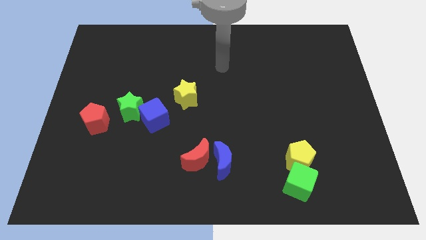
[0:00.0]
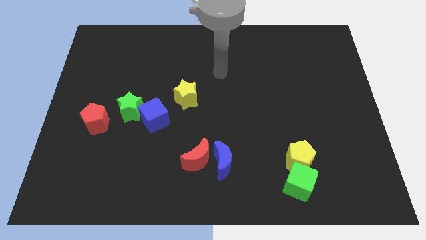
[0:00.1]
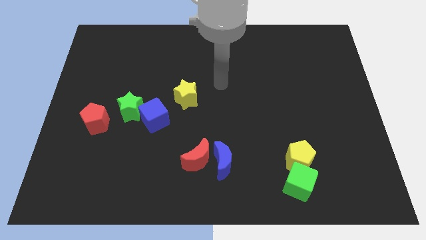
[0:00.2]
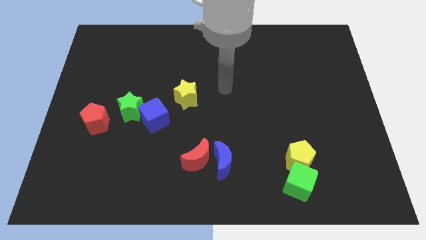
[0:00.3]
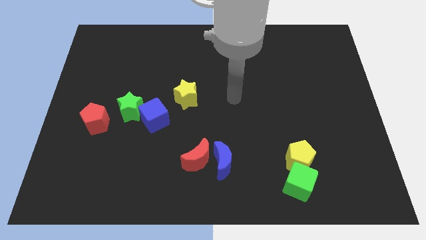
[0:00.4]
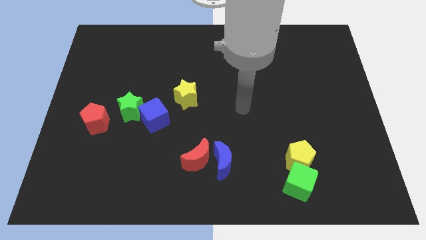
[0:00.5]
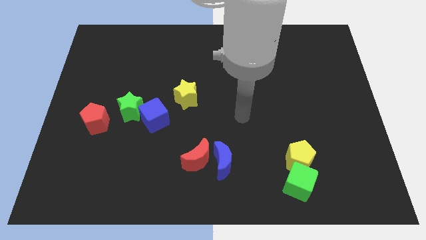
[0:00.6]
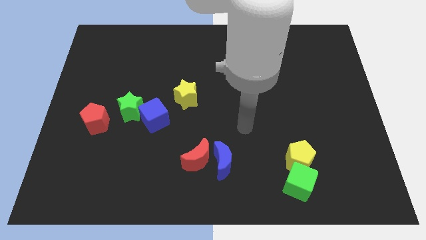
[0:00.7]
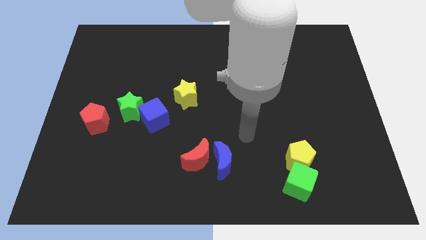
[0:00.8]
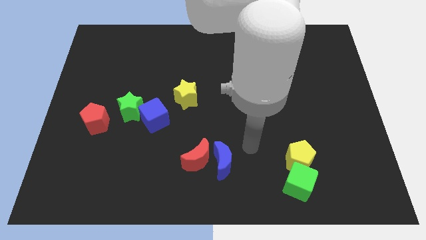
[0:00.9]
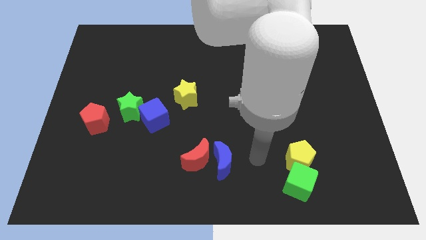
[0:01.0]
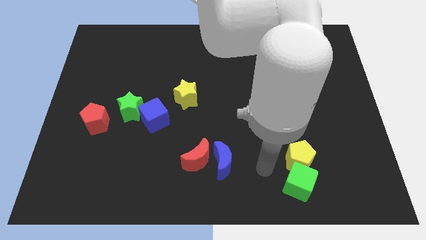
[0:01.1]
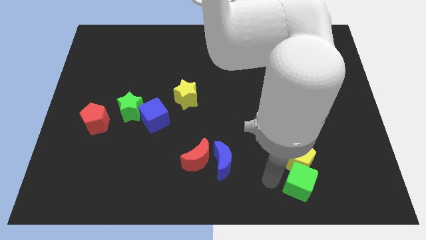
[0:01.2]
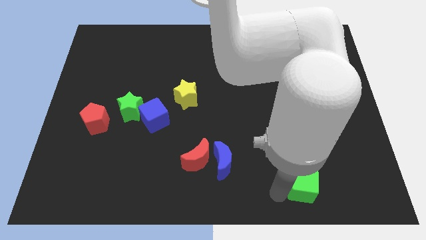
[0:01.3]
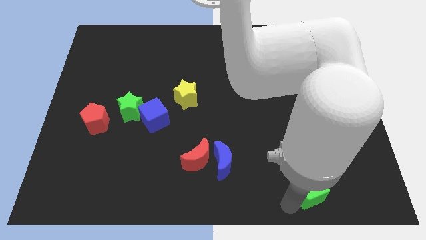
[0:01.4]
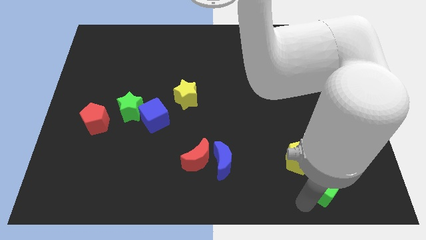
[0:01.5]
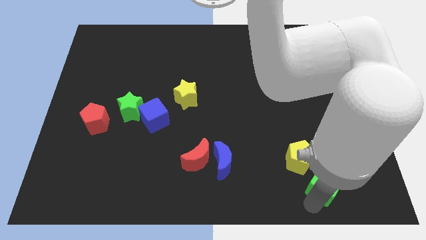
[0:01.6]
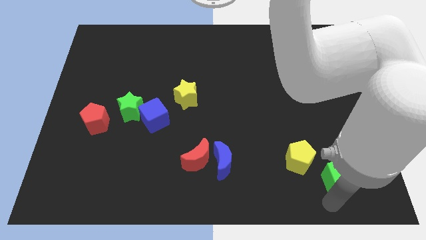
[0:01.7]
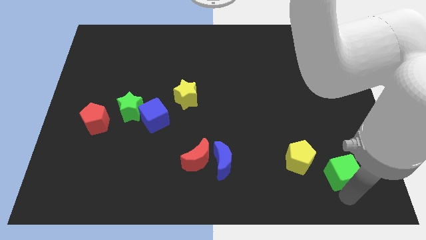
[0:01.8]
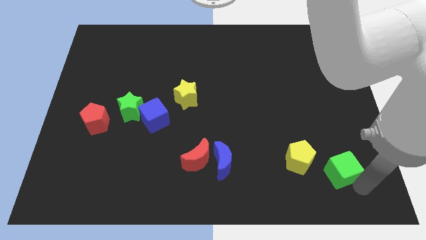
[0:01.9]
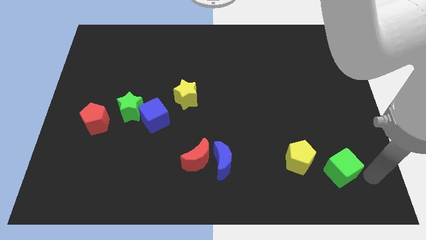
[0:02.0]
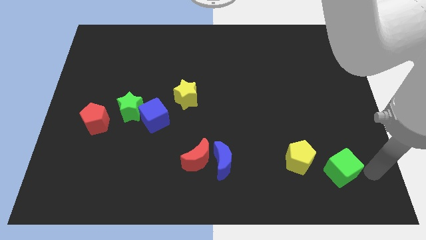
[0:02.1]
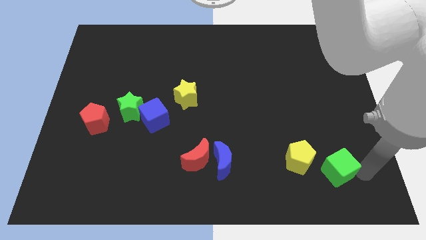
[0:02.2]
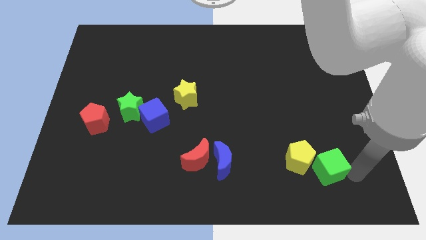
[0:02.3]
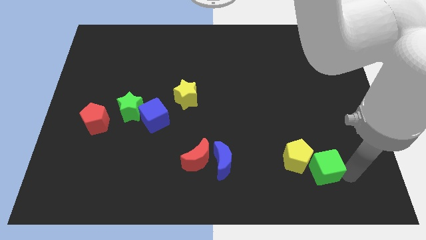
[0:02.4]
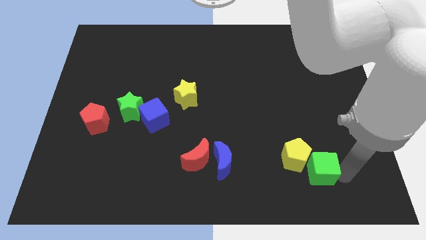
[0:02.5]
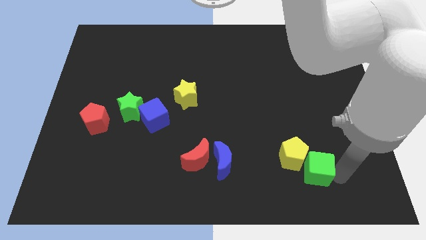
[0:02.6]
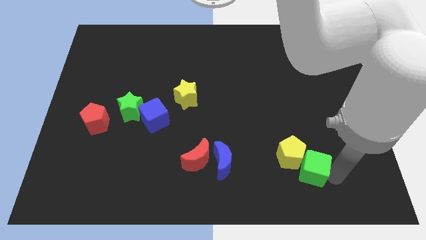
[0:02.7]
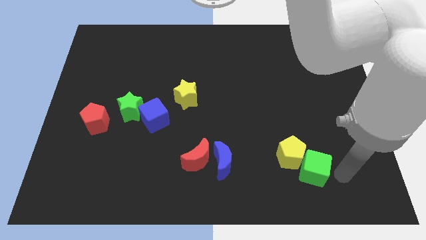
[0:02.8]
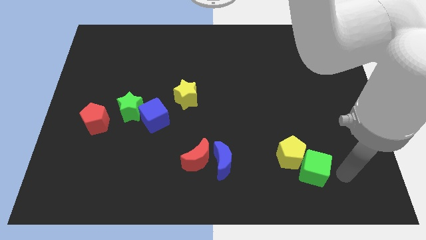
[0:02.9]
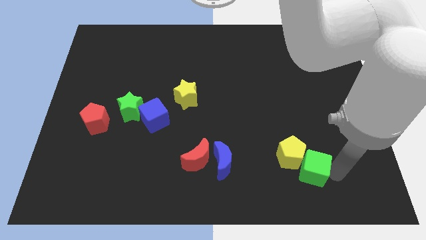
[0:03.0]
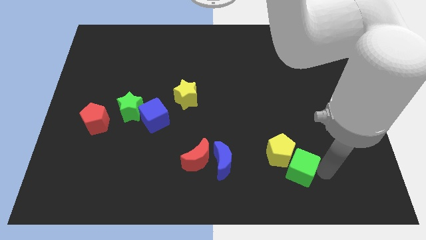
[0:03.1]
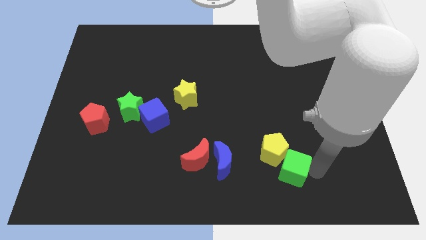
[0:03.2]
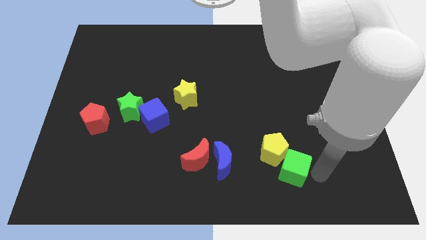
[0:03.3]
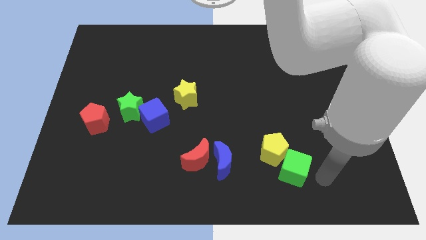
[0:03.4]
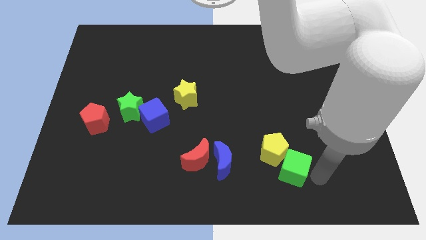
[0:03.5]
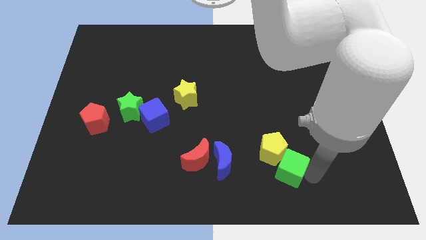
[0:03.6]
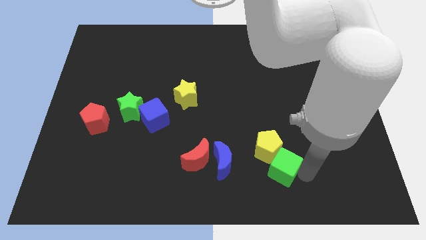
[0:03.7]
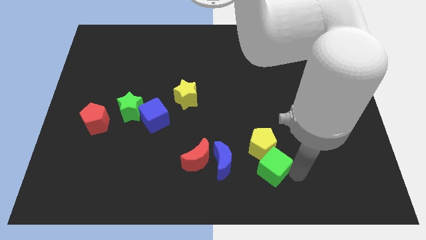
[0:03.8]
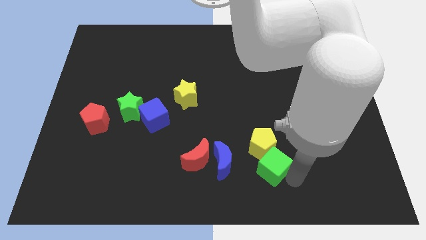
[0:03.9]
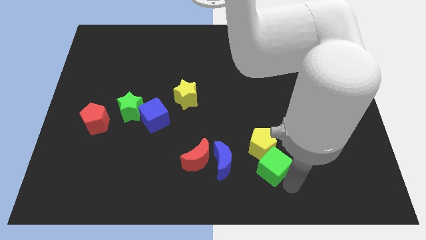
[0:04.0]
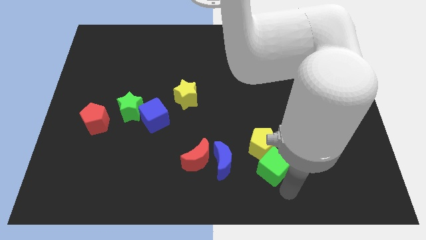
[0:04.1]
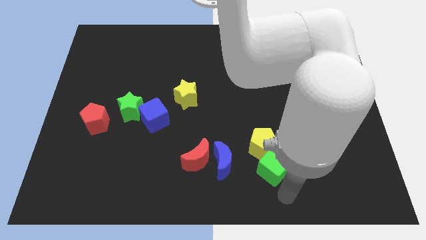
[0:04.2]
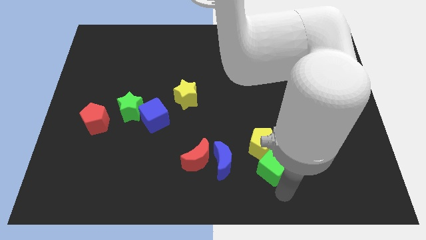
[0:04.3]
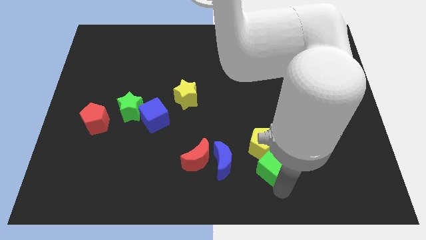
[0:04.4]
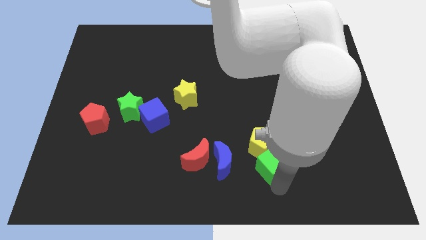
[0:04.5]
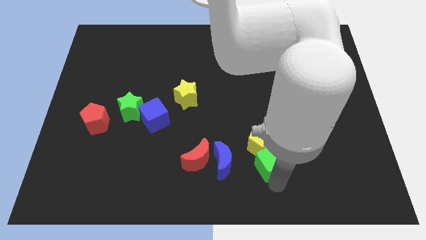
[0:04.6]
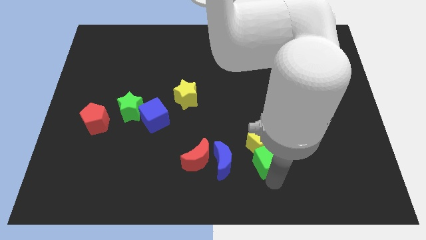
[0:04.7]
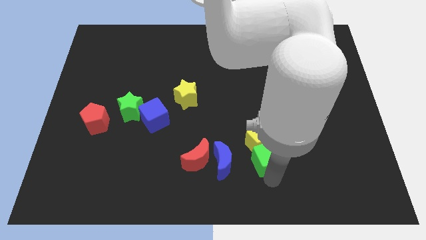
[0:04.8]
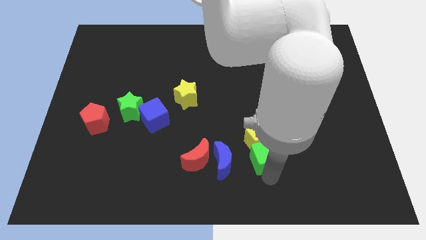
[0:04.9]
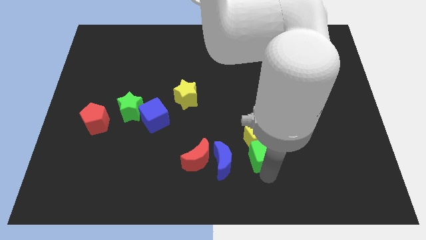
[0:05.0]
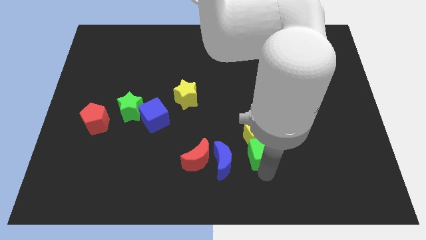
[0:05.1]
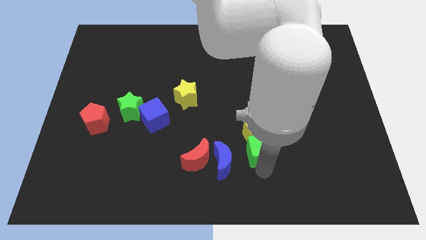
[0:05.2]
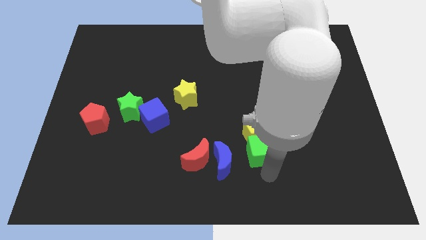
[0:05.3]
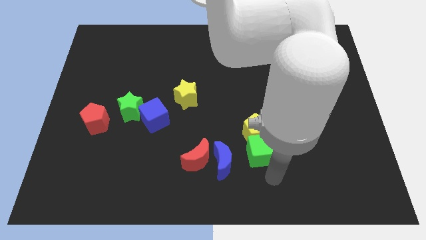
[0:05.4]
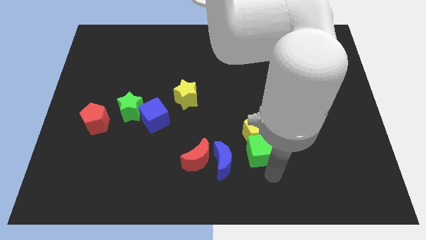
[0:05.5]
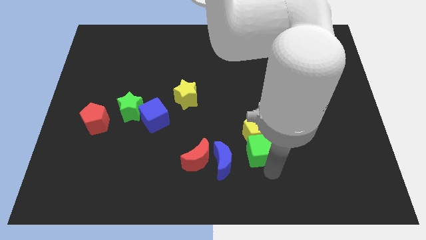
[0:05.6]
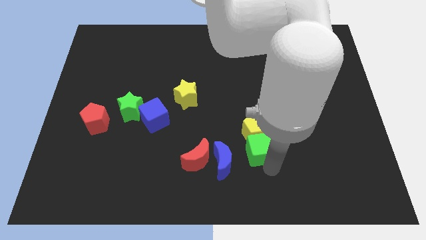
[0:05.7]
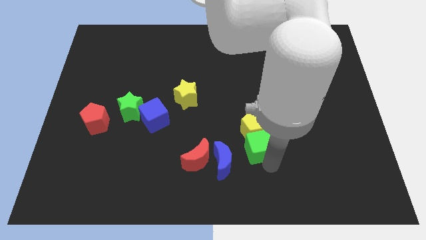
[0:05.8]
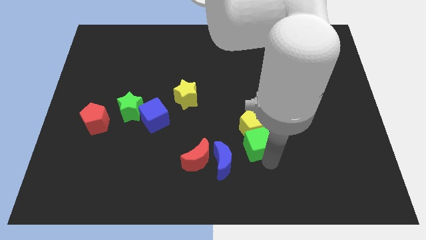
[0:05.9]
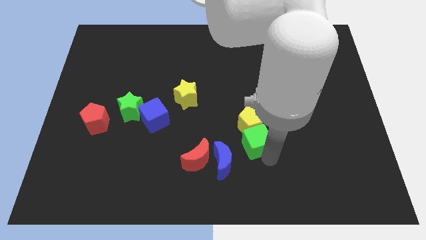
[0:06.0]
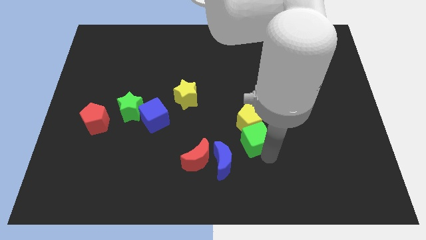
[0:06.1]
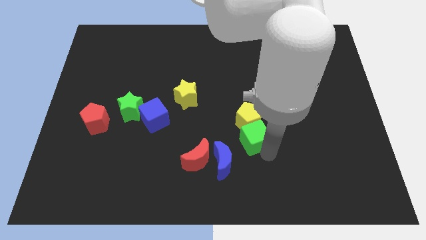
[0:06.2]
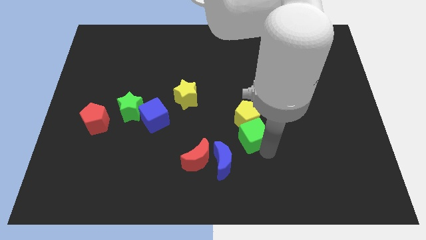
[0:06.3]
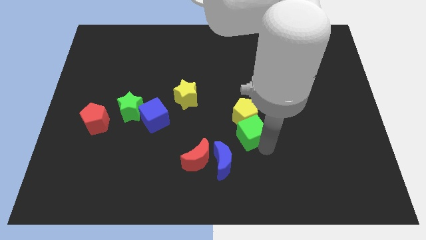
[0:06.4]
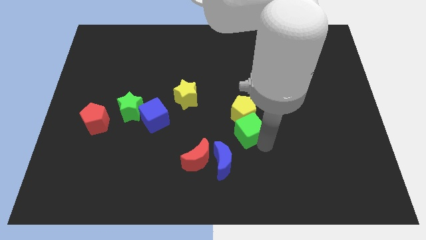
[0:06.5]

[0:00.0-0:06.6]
move the green cube to the middle
